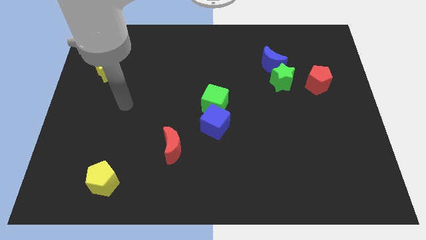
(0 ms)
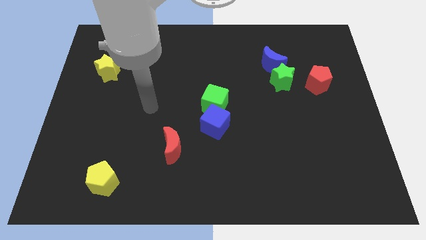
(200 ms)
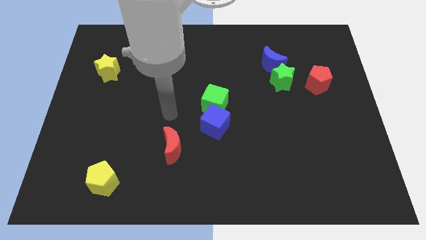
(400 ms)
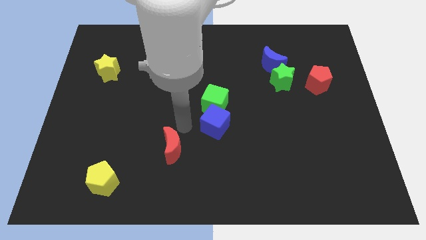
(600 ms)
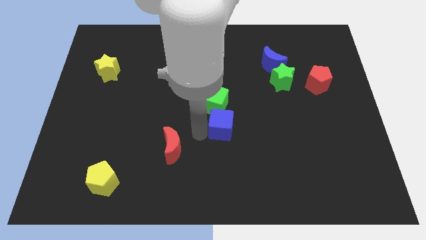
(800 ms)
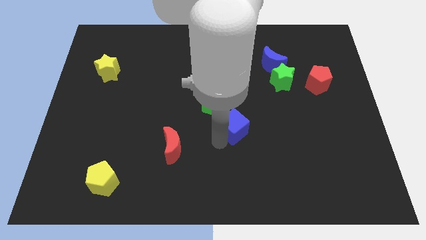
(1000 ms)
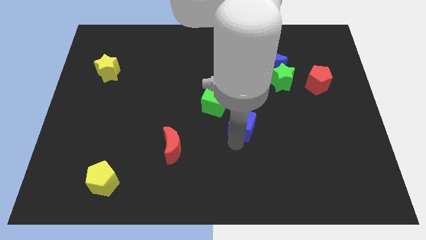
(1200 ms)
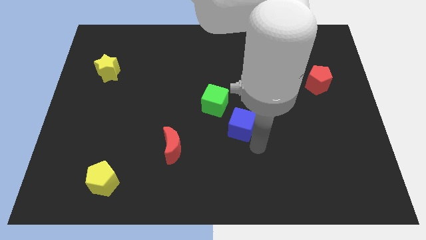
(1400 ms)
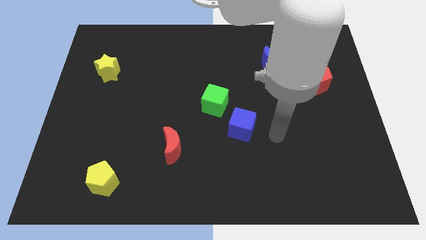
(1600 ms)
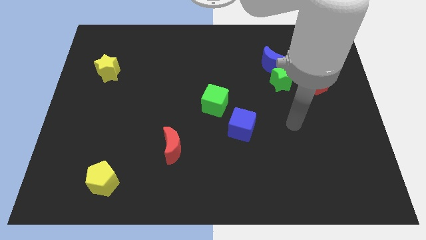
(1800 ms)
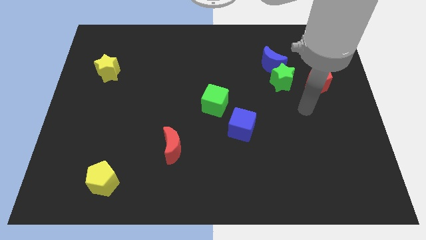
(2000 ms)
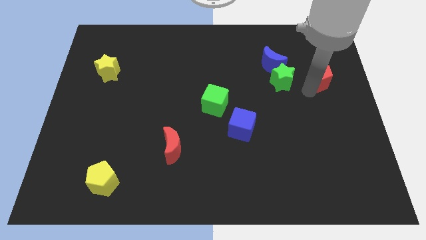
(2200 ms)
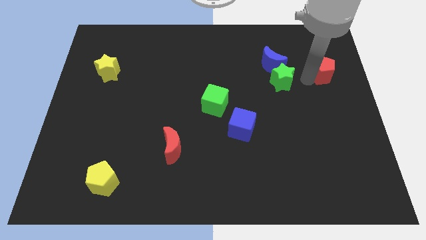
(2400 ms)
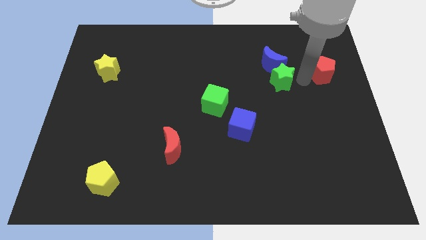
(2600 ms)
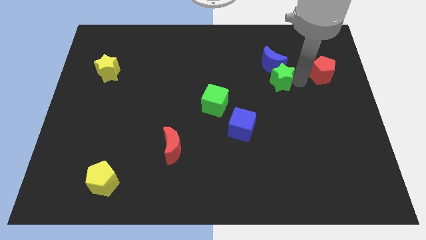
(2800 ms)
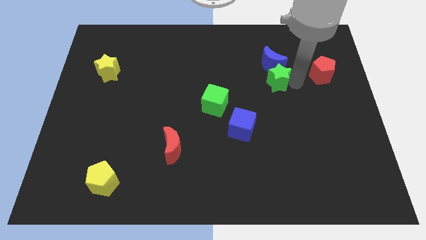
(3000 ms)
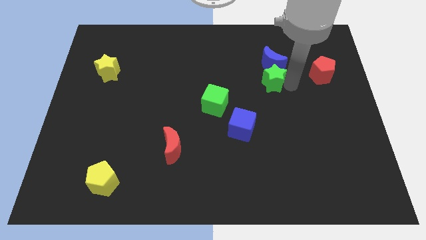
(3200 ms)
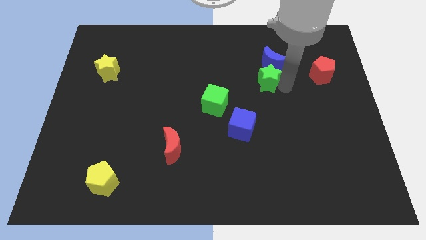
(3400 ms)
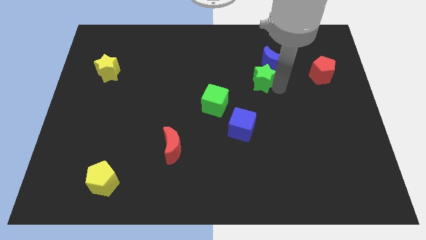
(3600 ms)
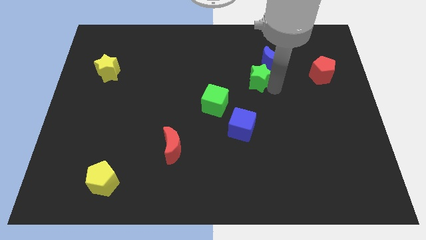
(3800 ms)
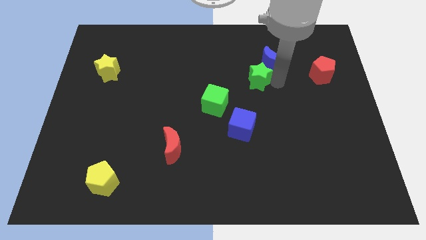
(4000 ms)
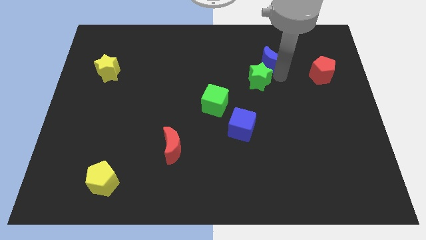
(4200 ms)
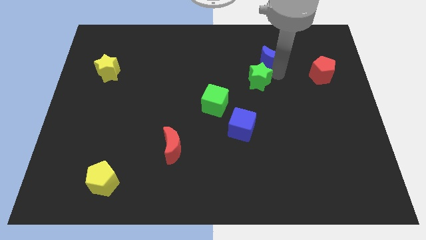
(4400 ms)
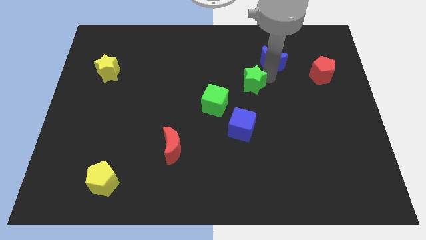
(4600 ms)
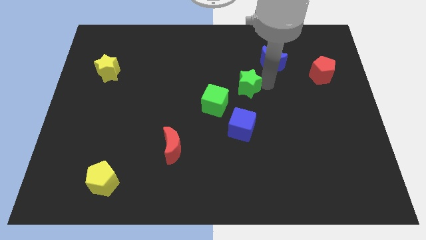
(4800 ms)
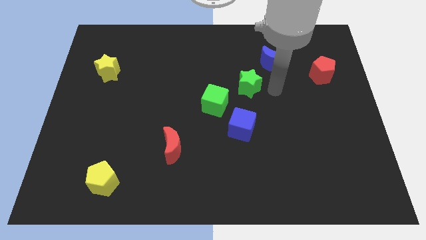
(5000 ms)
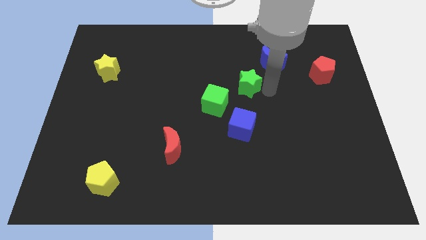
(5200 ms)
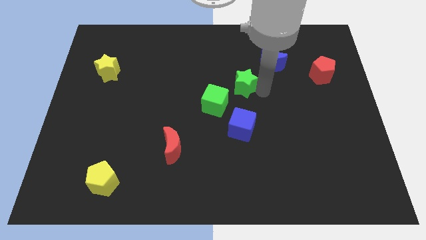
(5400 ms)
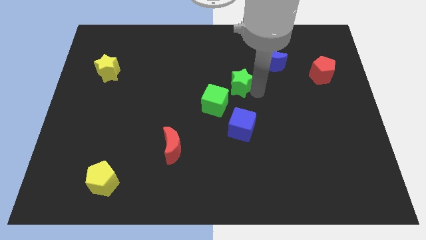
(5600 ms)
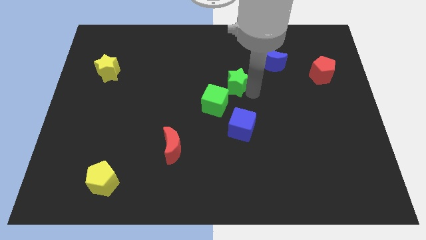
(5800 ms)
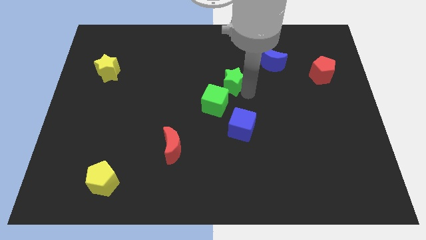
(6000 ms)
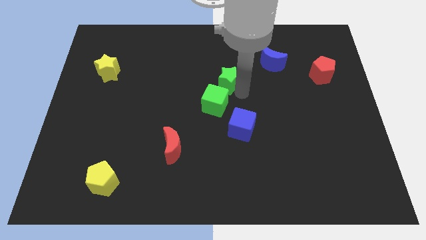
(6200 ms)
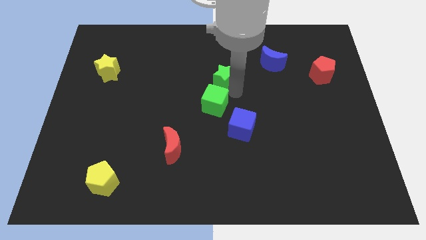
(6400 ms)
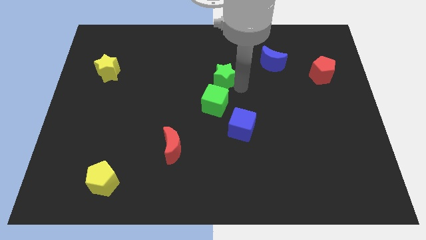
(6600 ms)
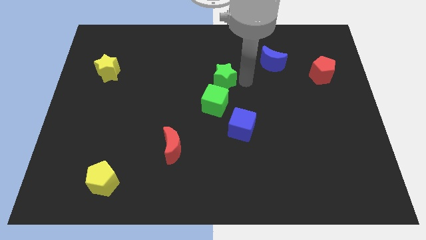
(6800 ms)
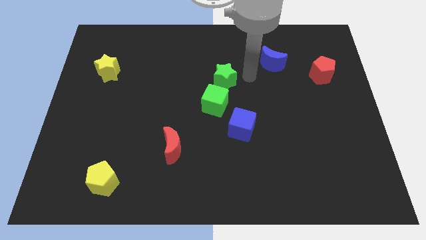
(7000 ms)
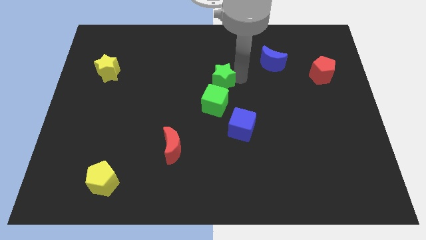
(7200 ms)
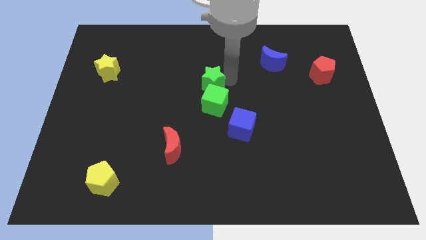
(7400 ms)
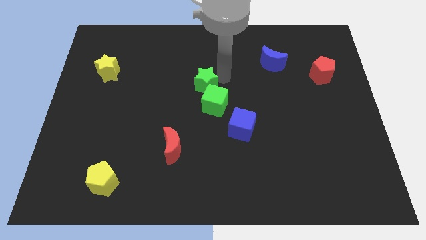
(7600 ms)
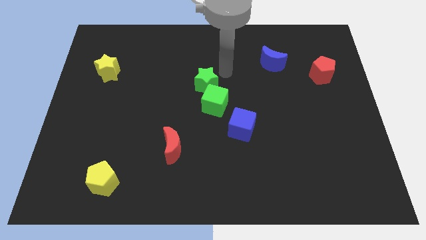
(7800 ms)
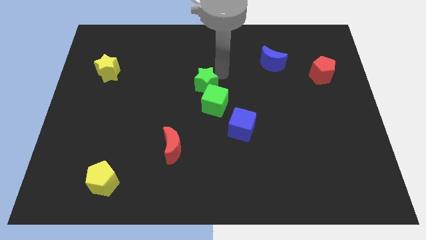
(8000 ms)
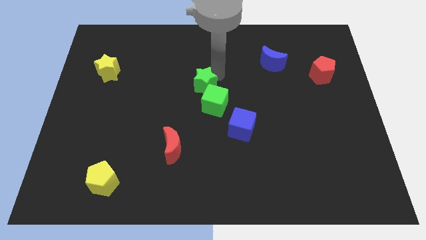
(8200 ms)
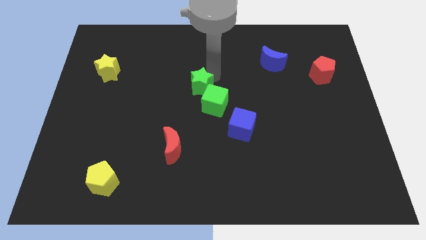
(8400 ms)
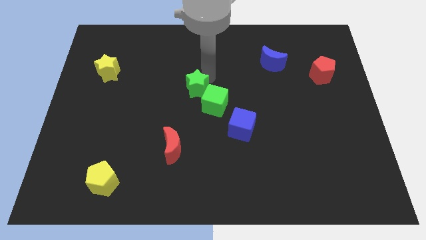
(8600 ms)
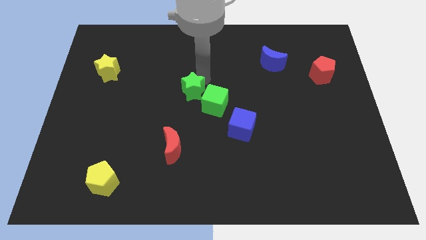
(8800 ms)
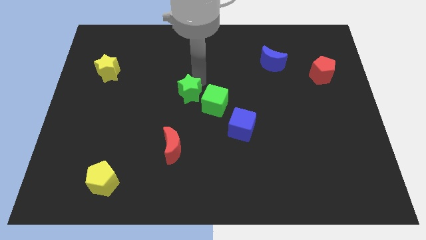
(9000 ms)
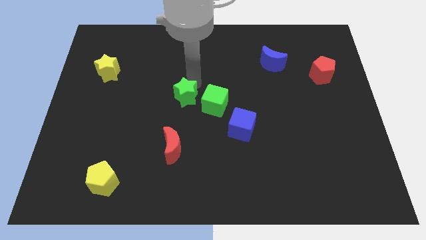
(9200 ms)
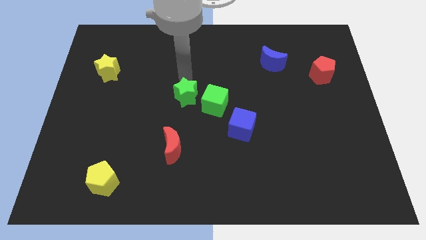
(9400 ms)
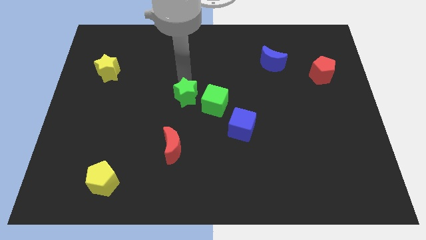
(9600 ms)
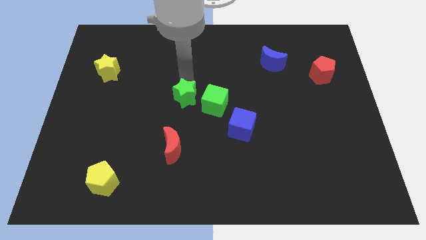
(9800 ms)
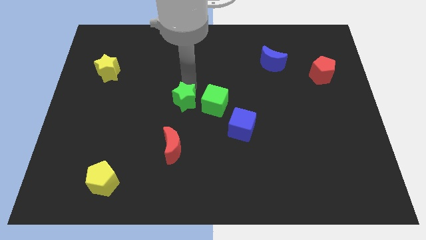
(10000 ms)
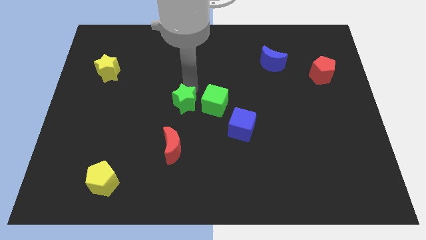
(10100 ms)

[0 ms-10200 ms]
slide the green star diagonally down and to the left of the green cube

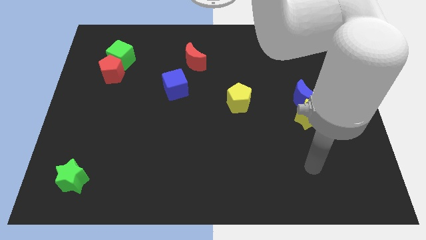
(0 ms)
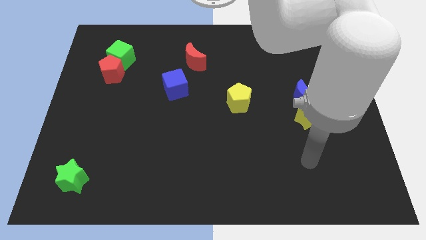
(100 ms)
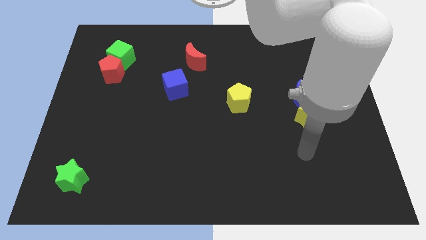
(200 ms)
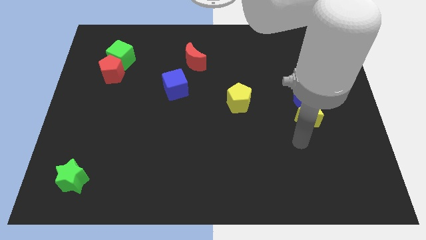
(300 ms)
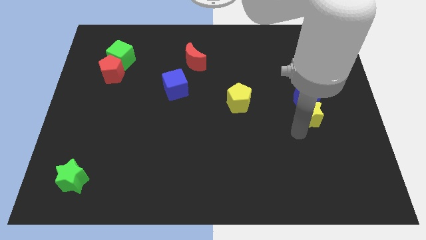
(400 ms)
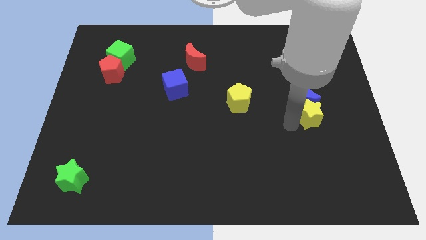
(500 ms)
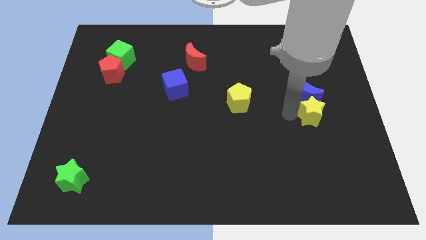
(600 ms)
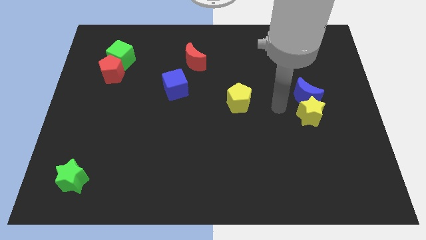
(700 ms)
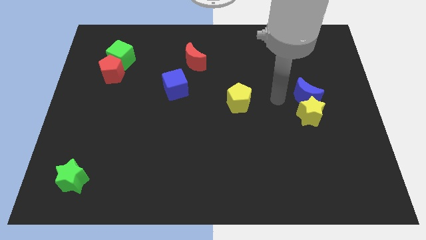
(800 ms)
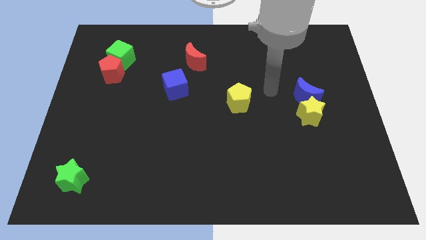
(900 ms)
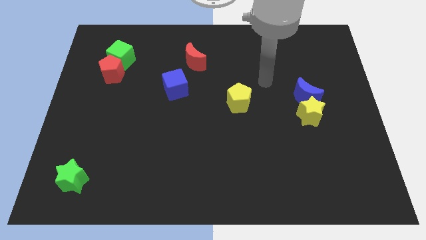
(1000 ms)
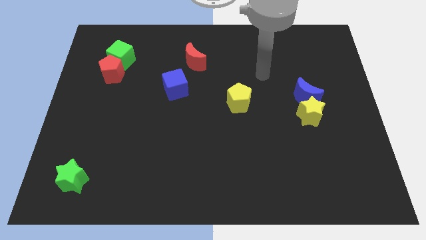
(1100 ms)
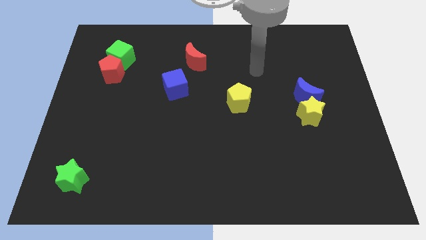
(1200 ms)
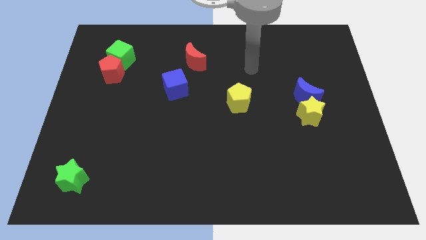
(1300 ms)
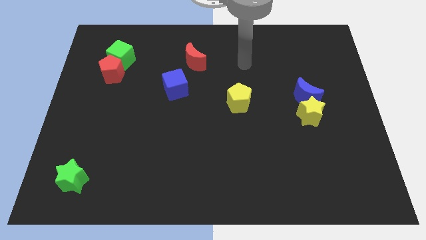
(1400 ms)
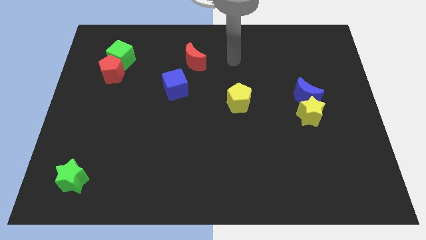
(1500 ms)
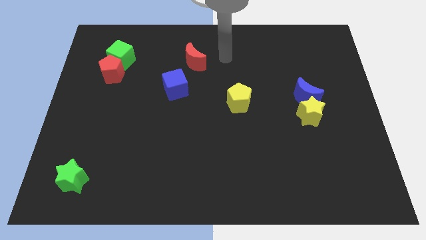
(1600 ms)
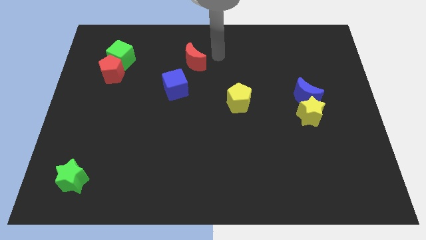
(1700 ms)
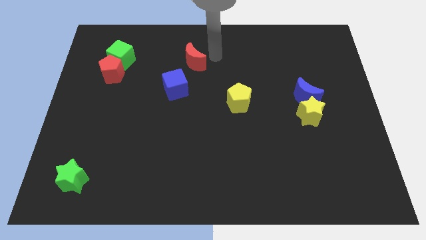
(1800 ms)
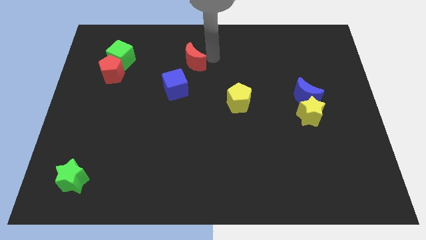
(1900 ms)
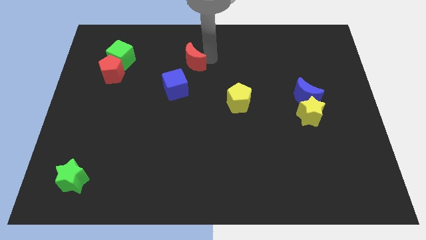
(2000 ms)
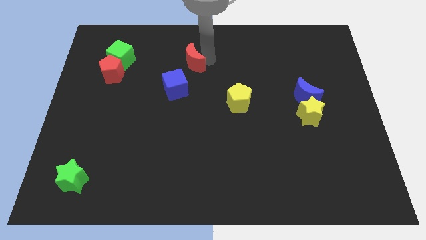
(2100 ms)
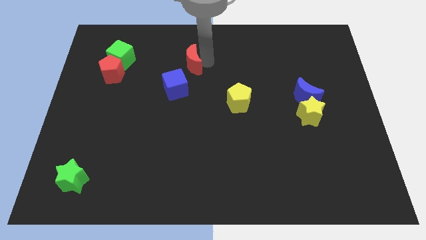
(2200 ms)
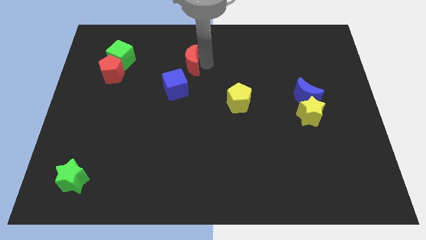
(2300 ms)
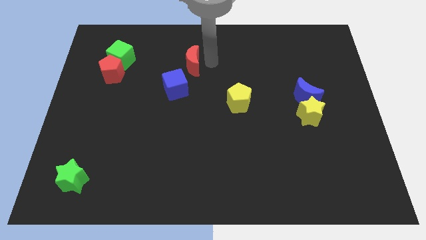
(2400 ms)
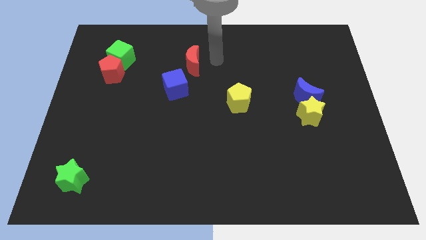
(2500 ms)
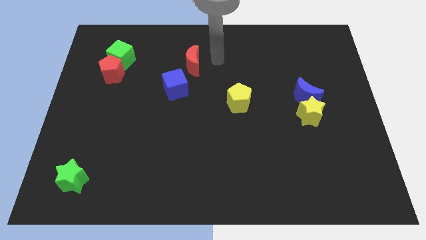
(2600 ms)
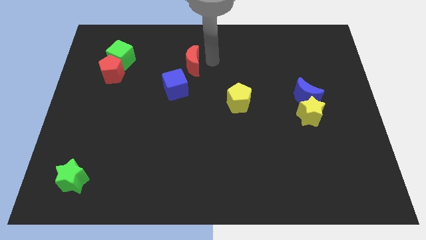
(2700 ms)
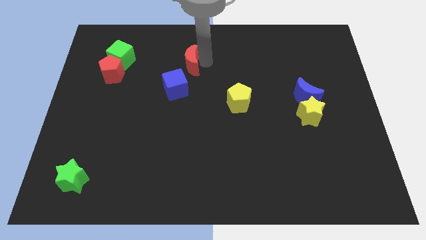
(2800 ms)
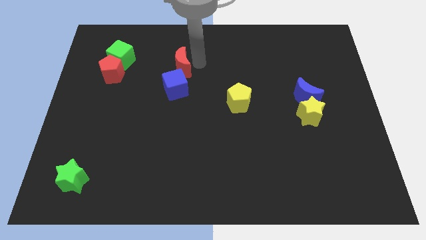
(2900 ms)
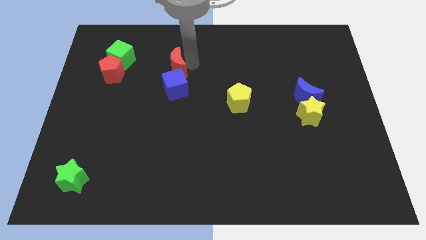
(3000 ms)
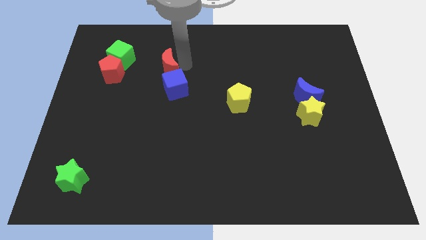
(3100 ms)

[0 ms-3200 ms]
push the red moon to the top left side of the blue cube
